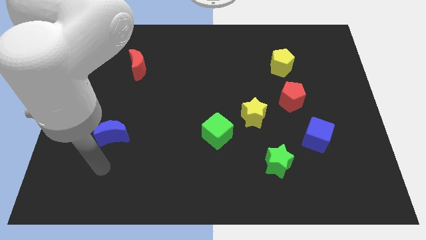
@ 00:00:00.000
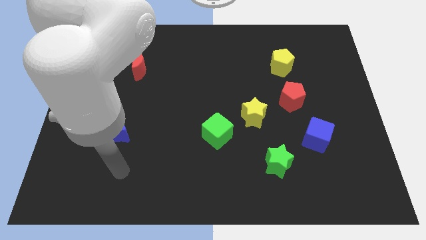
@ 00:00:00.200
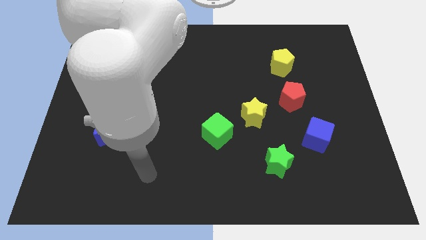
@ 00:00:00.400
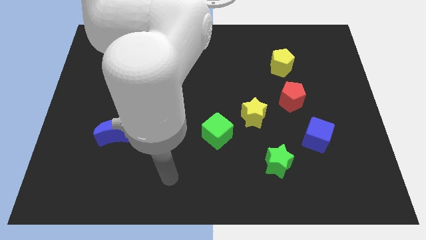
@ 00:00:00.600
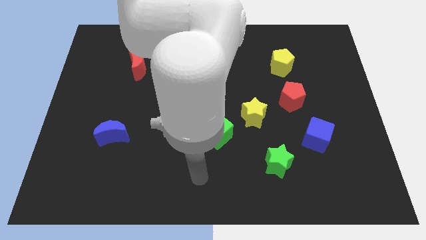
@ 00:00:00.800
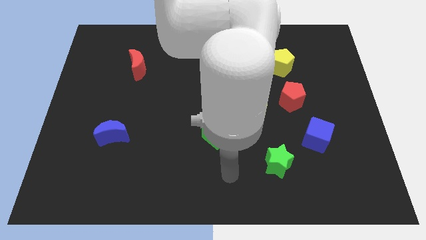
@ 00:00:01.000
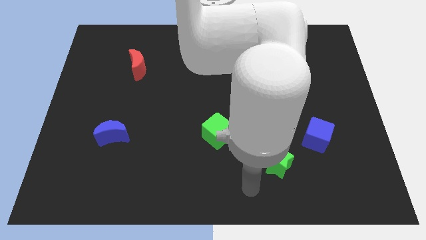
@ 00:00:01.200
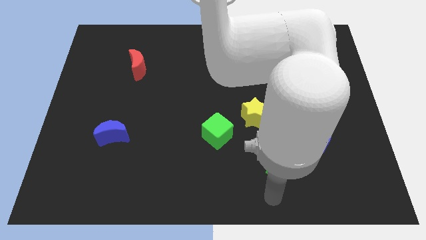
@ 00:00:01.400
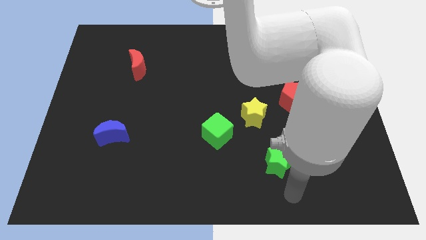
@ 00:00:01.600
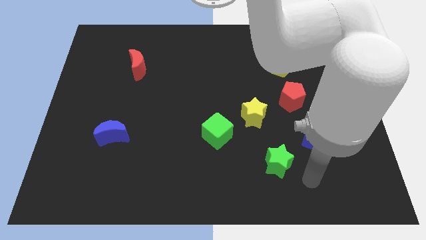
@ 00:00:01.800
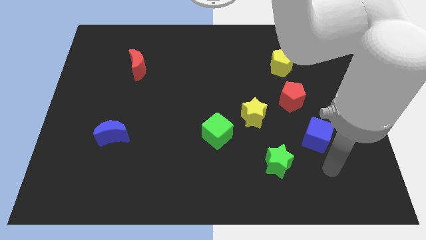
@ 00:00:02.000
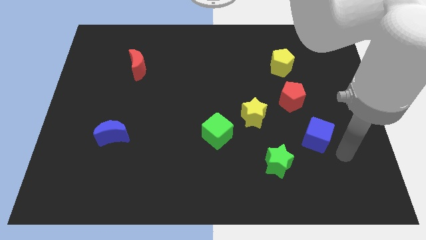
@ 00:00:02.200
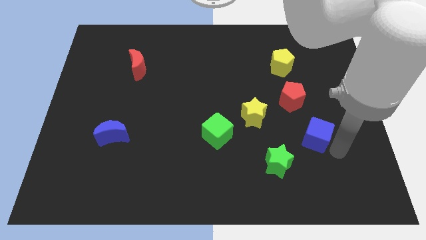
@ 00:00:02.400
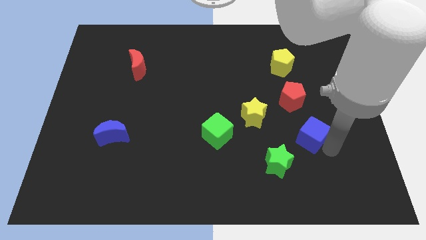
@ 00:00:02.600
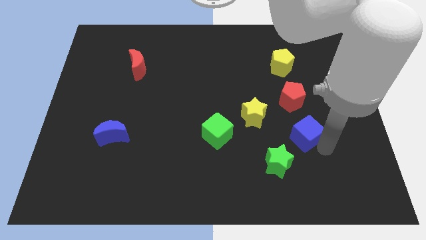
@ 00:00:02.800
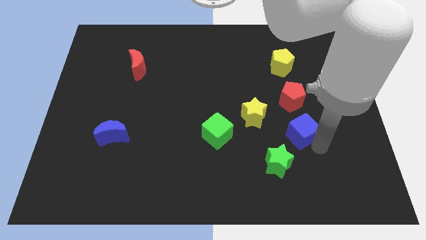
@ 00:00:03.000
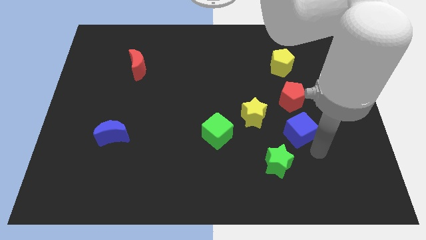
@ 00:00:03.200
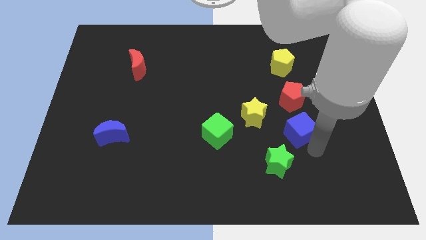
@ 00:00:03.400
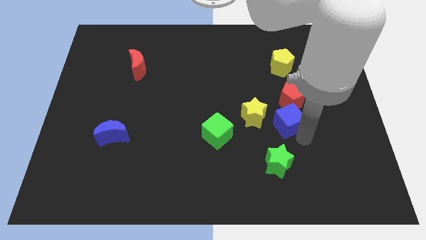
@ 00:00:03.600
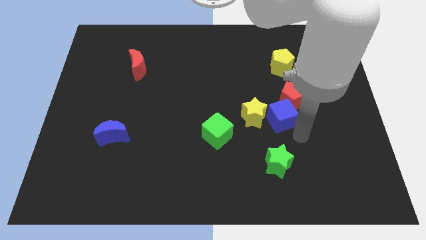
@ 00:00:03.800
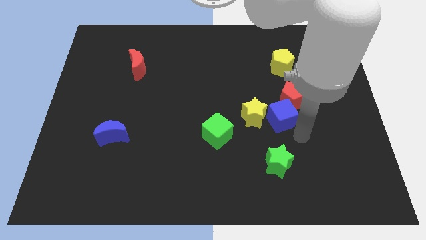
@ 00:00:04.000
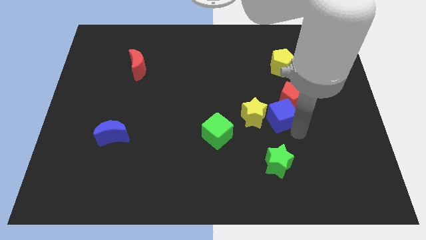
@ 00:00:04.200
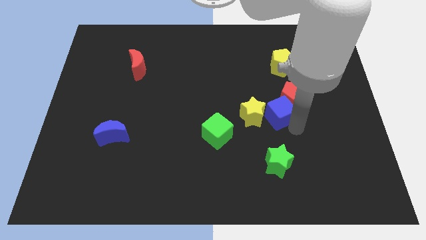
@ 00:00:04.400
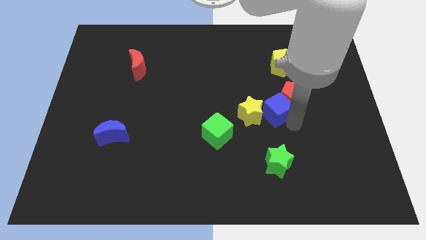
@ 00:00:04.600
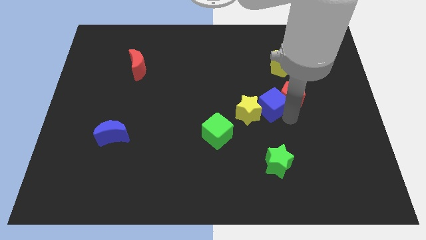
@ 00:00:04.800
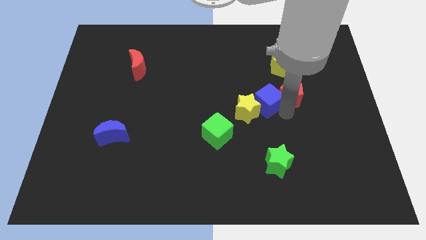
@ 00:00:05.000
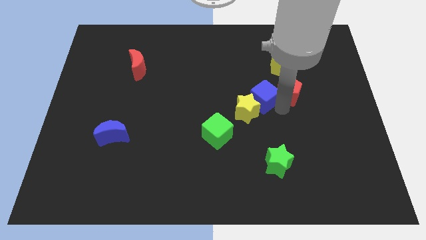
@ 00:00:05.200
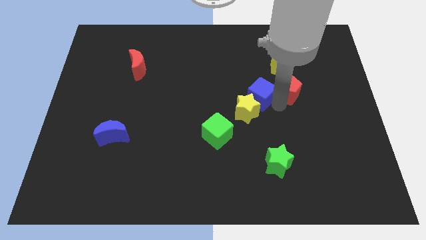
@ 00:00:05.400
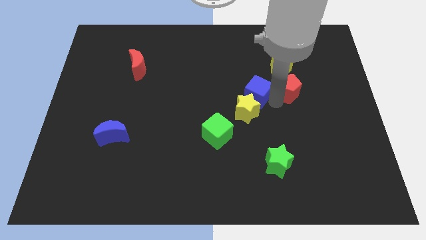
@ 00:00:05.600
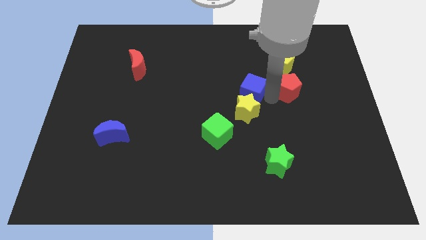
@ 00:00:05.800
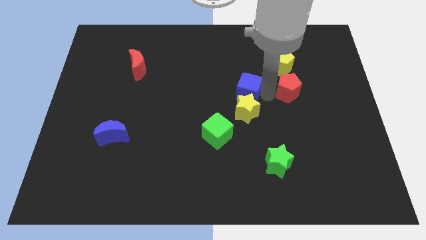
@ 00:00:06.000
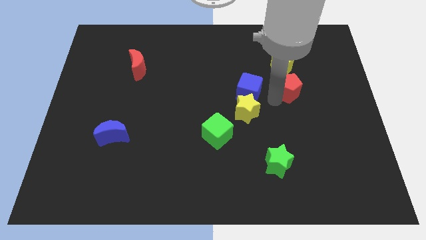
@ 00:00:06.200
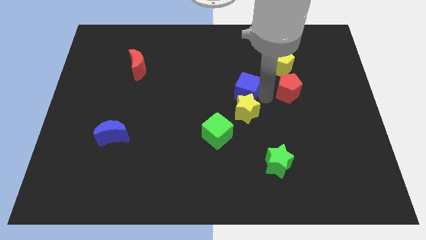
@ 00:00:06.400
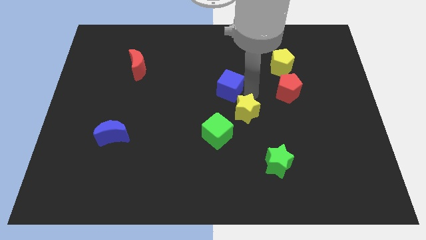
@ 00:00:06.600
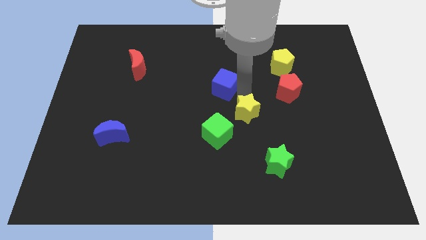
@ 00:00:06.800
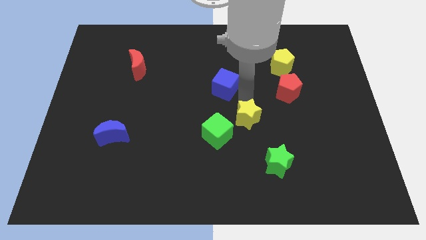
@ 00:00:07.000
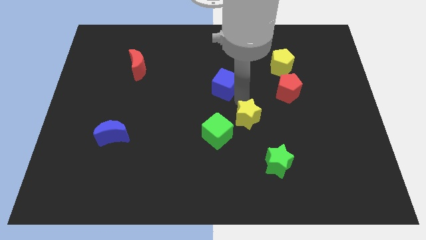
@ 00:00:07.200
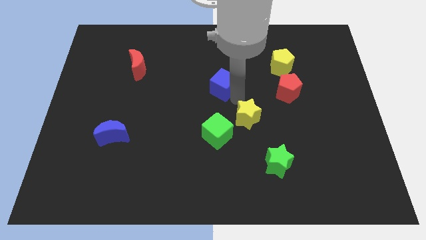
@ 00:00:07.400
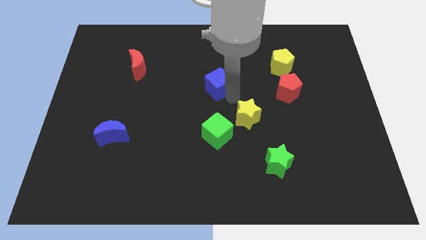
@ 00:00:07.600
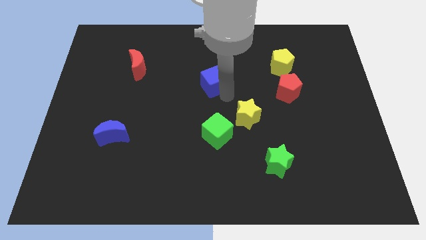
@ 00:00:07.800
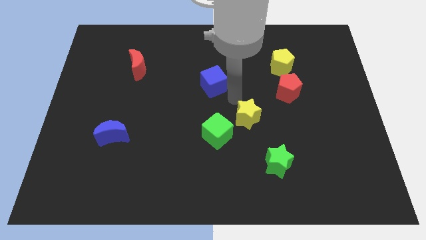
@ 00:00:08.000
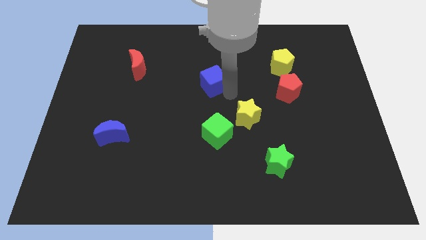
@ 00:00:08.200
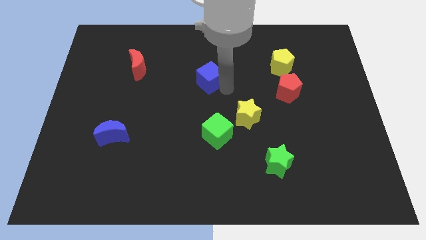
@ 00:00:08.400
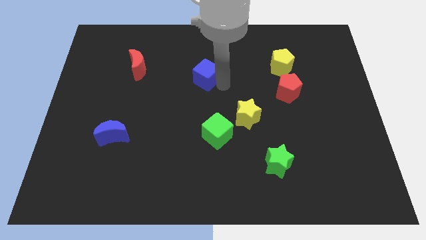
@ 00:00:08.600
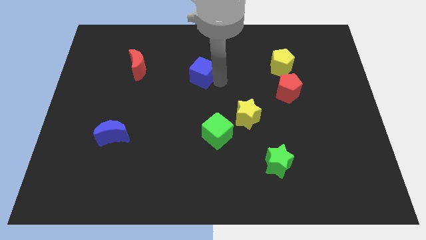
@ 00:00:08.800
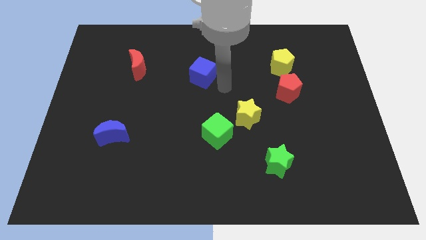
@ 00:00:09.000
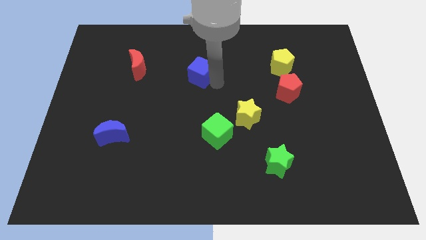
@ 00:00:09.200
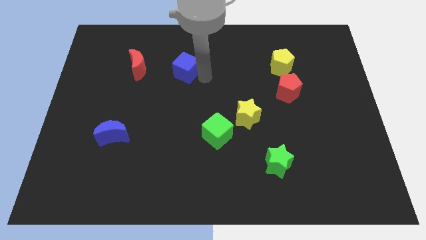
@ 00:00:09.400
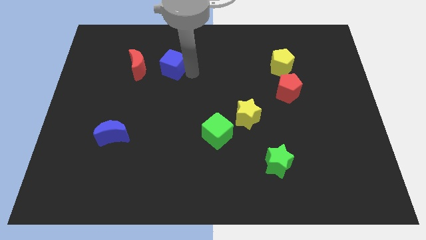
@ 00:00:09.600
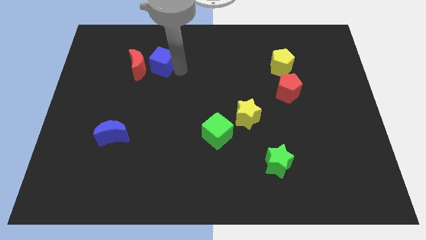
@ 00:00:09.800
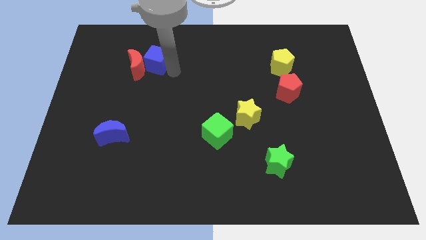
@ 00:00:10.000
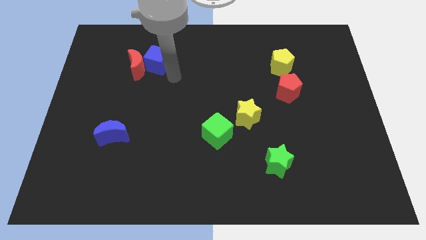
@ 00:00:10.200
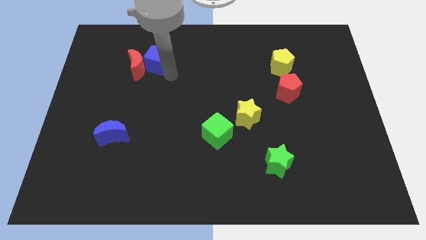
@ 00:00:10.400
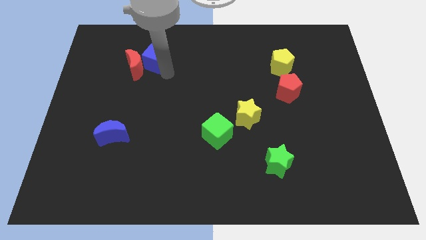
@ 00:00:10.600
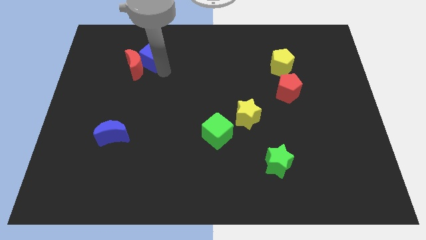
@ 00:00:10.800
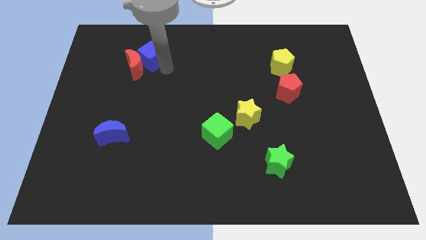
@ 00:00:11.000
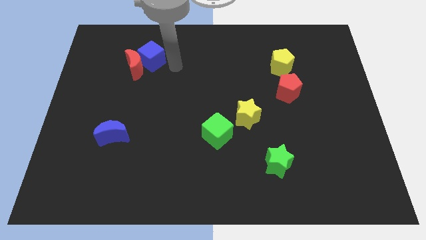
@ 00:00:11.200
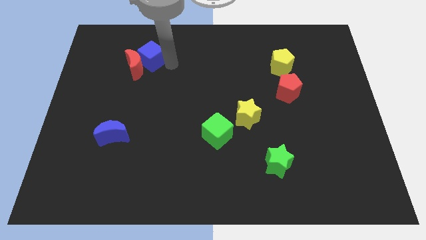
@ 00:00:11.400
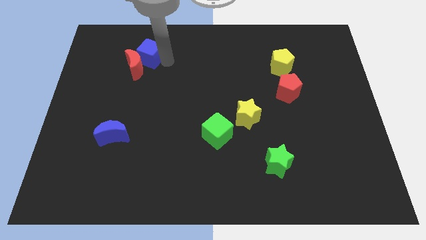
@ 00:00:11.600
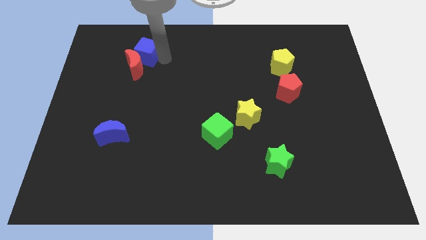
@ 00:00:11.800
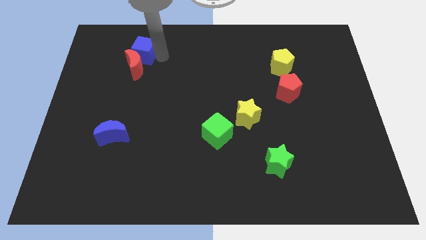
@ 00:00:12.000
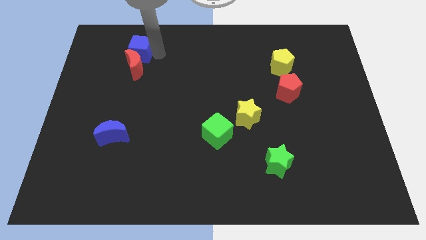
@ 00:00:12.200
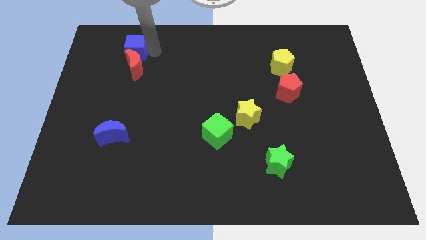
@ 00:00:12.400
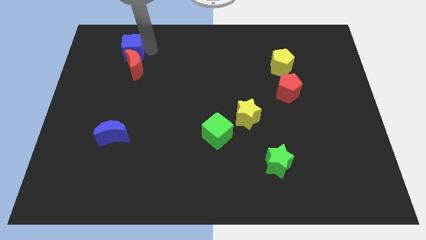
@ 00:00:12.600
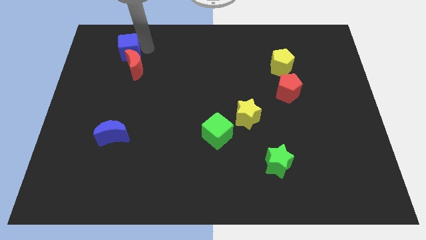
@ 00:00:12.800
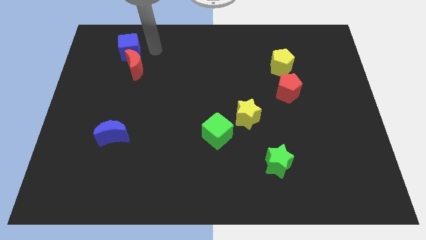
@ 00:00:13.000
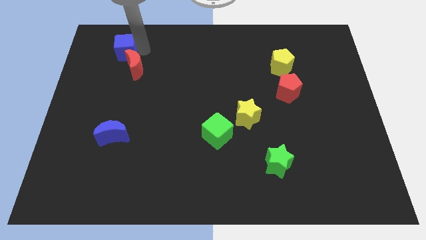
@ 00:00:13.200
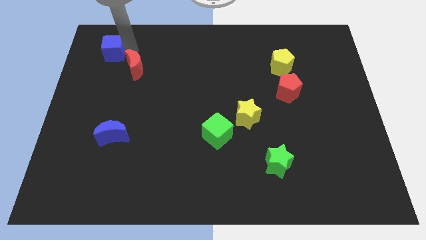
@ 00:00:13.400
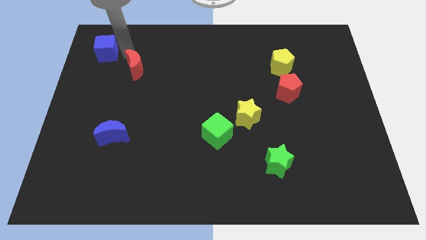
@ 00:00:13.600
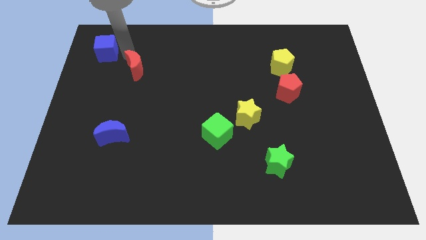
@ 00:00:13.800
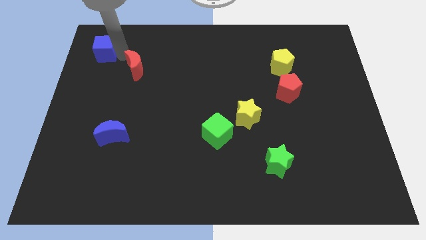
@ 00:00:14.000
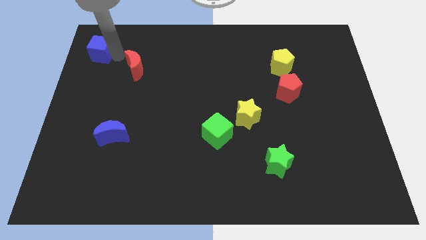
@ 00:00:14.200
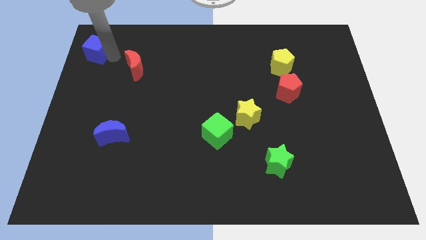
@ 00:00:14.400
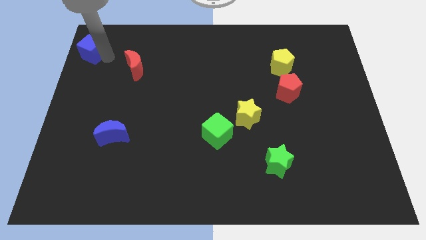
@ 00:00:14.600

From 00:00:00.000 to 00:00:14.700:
put the blue cube to the top left of the board

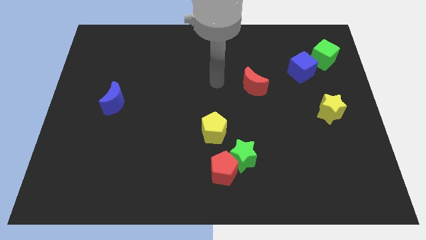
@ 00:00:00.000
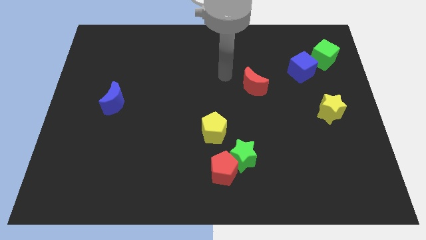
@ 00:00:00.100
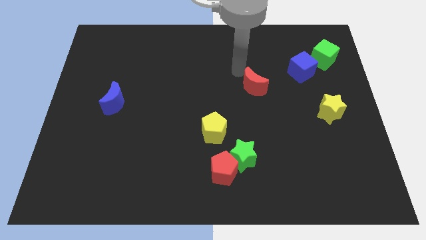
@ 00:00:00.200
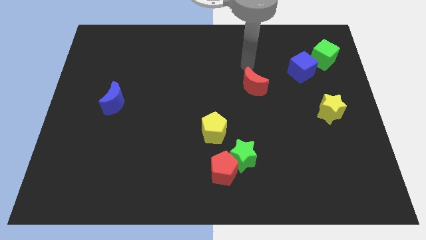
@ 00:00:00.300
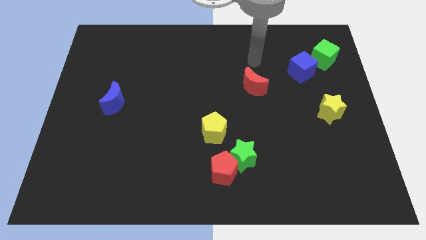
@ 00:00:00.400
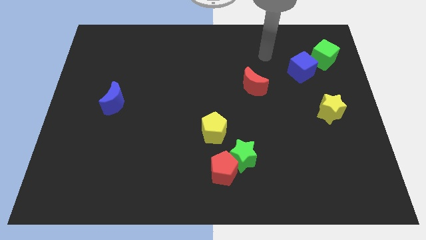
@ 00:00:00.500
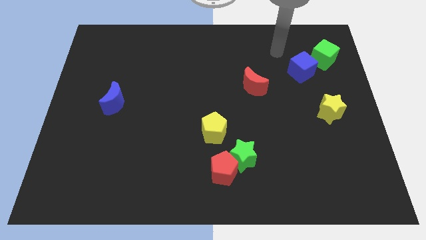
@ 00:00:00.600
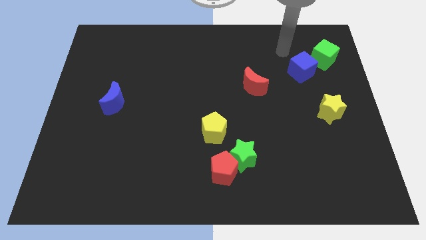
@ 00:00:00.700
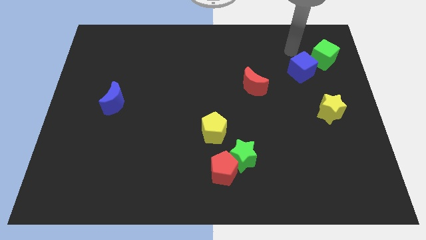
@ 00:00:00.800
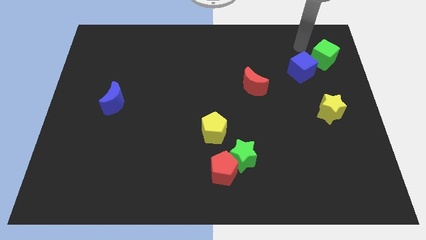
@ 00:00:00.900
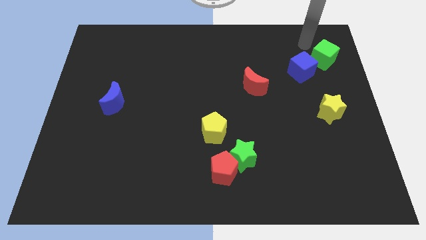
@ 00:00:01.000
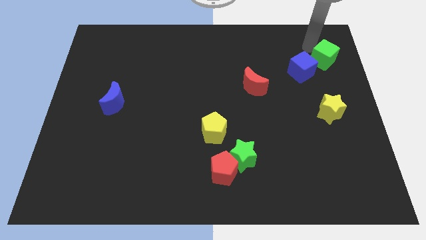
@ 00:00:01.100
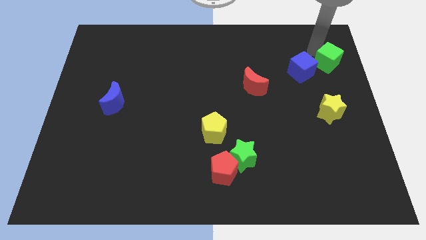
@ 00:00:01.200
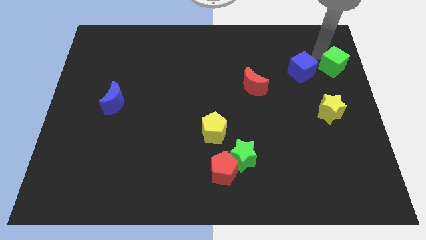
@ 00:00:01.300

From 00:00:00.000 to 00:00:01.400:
slide the green cube to the right side of the board
